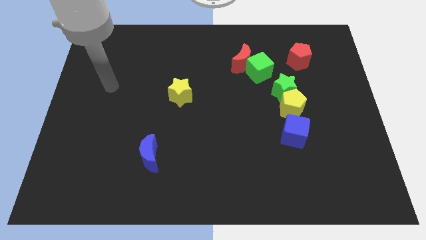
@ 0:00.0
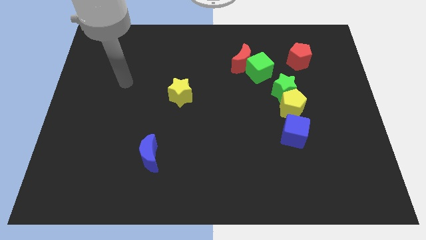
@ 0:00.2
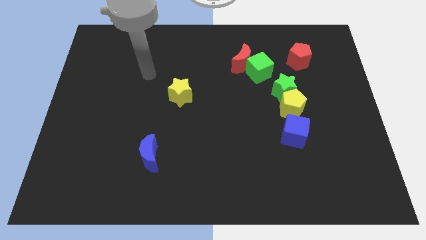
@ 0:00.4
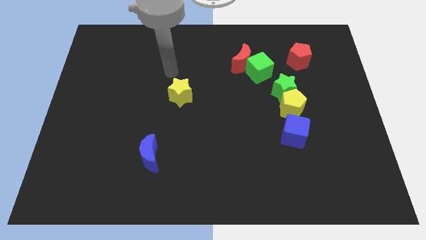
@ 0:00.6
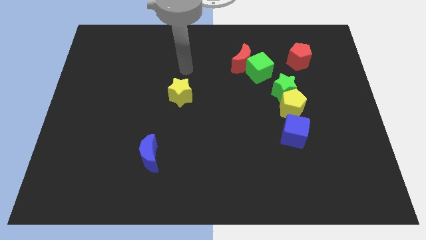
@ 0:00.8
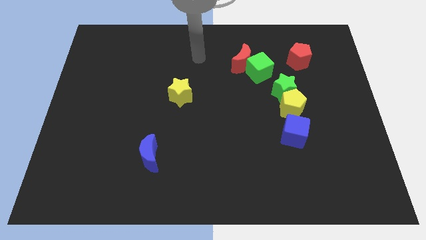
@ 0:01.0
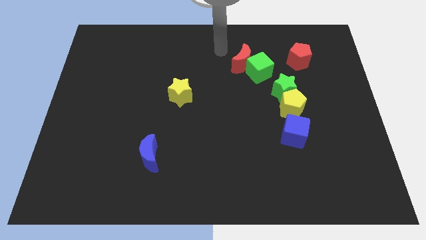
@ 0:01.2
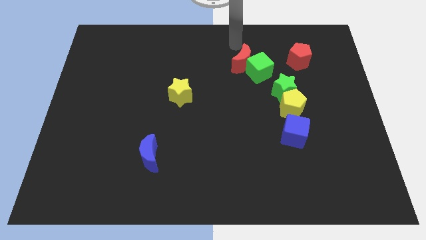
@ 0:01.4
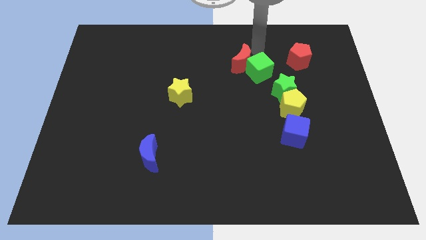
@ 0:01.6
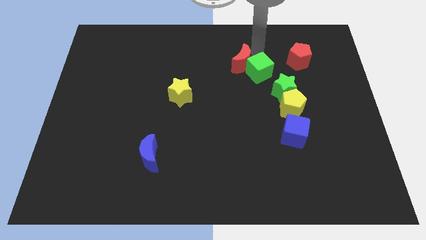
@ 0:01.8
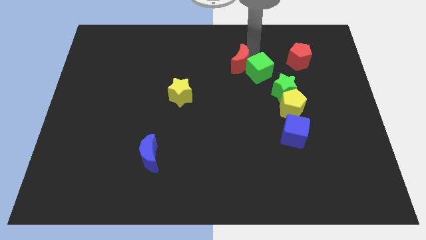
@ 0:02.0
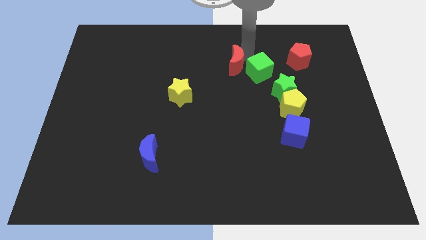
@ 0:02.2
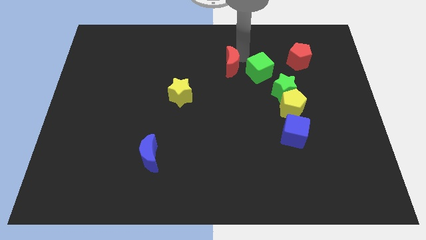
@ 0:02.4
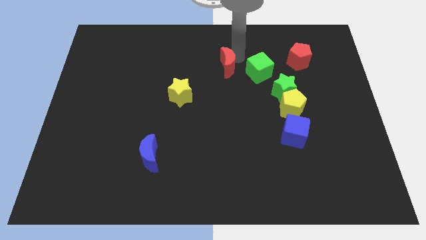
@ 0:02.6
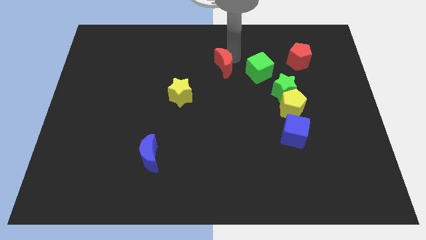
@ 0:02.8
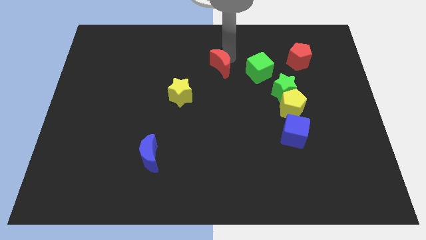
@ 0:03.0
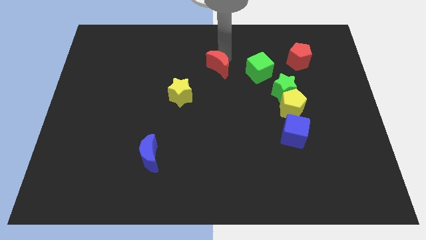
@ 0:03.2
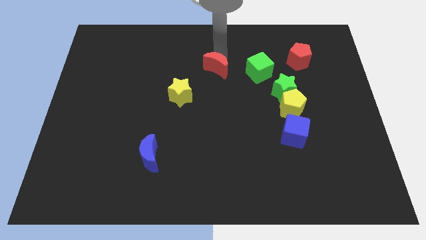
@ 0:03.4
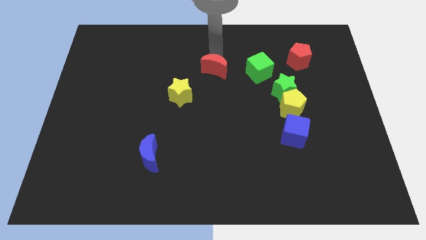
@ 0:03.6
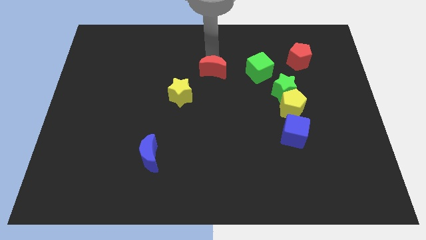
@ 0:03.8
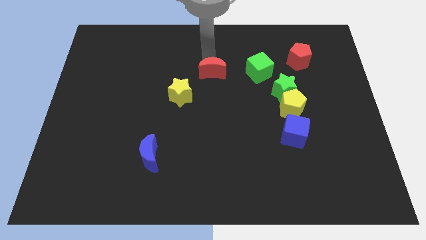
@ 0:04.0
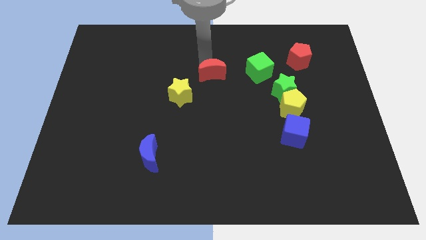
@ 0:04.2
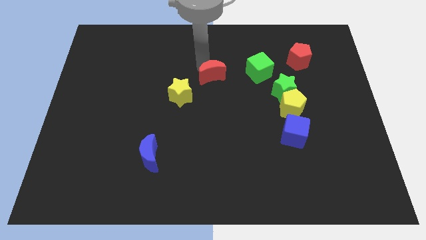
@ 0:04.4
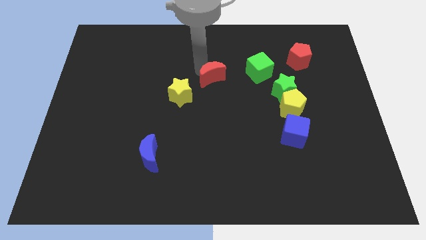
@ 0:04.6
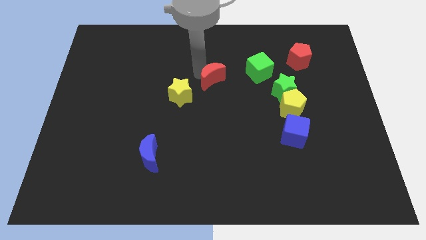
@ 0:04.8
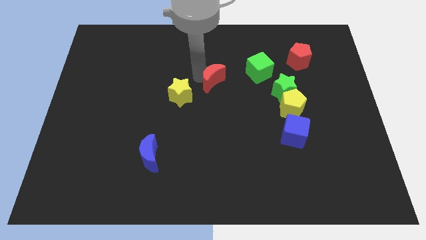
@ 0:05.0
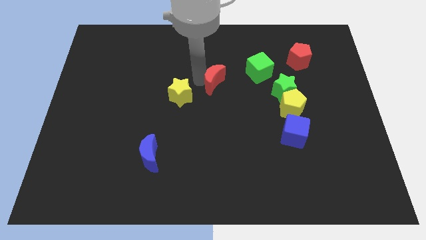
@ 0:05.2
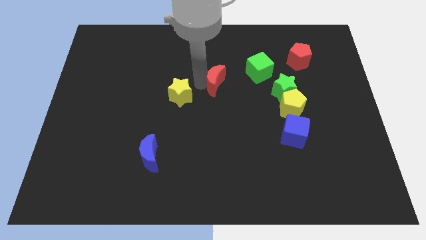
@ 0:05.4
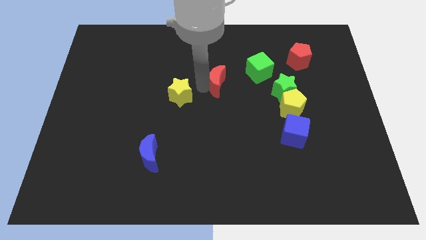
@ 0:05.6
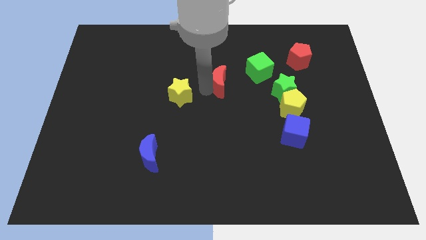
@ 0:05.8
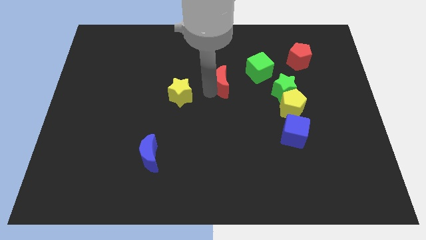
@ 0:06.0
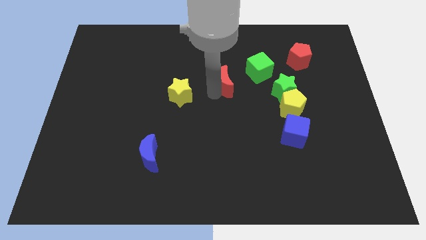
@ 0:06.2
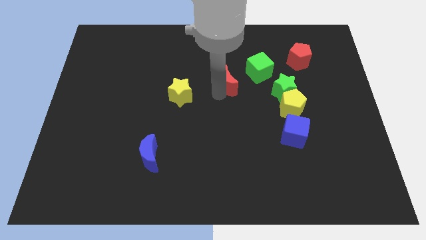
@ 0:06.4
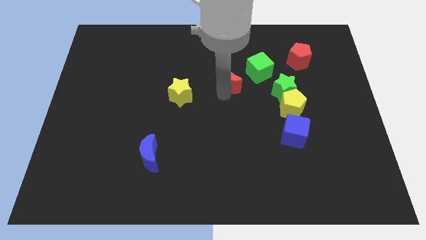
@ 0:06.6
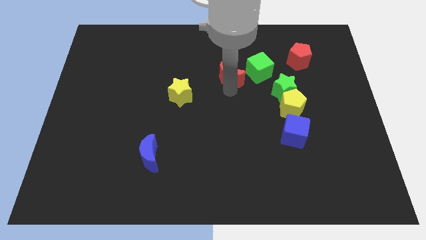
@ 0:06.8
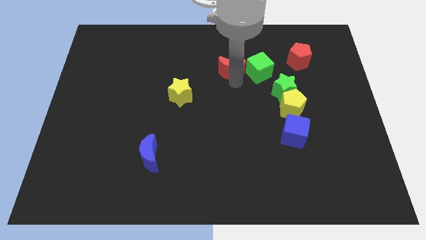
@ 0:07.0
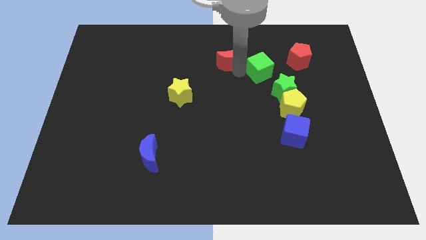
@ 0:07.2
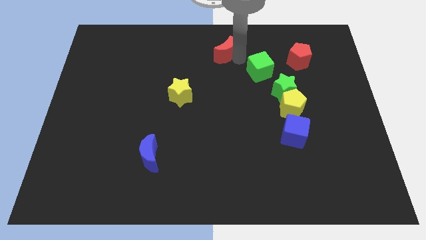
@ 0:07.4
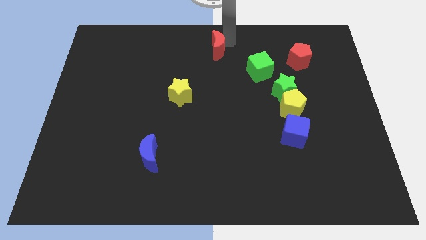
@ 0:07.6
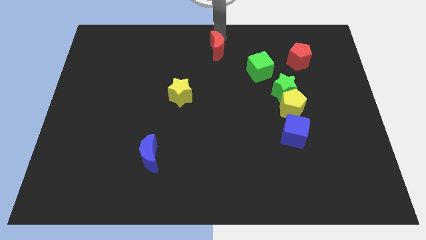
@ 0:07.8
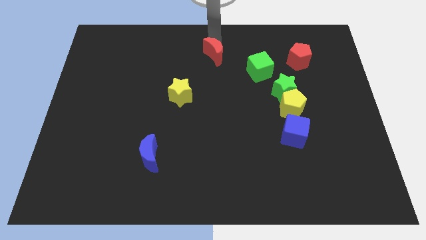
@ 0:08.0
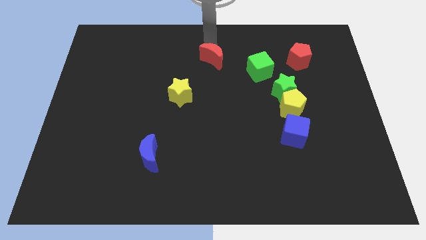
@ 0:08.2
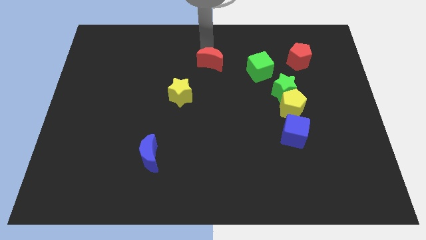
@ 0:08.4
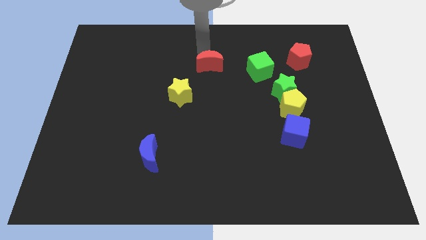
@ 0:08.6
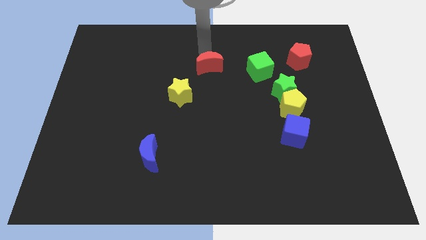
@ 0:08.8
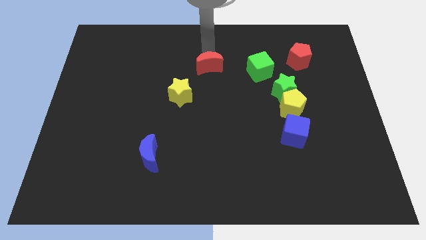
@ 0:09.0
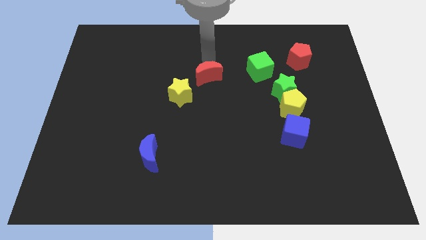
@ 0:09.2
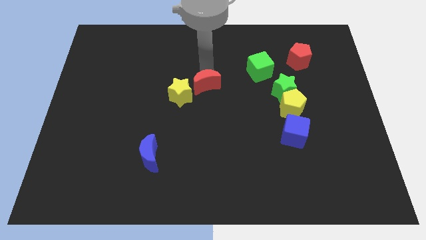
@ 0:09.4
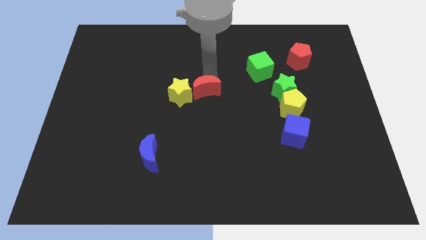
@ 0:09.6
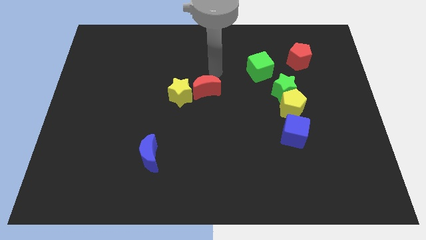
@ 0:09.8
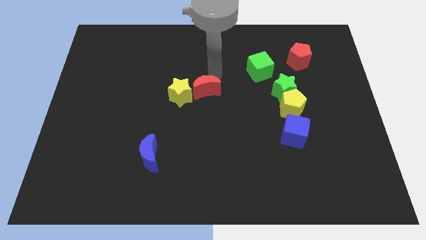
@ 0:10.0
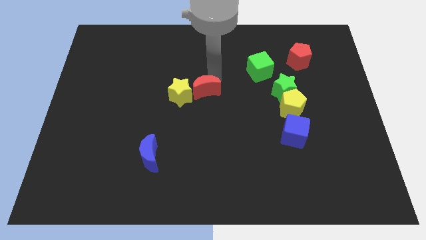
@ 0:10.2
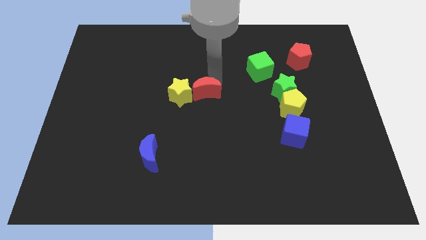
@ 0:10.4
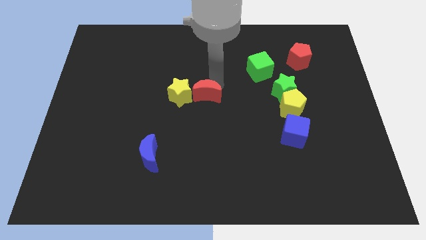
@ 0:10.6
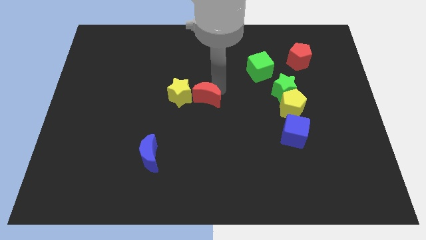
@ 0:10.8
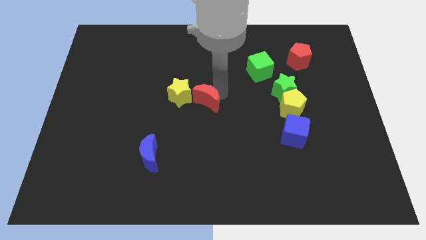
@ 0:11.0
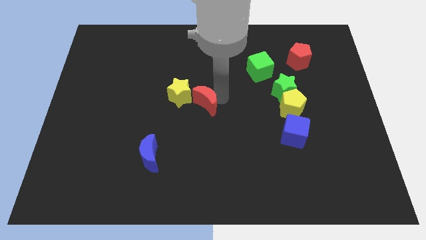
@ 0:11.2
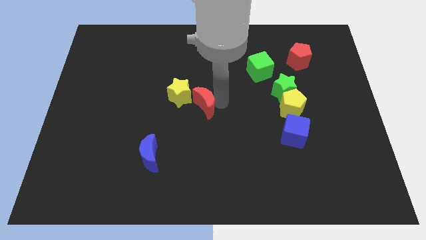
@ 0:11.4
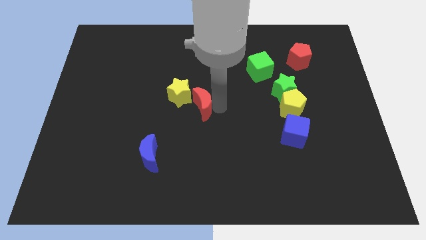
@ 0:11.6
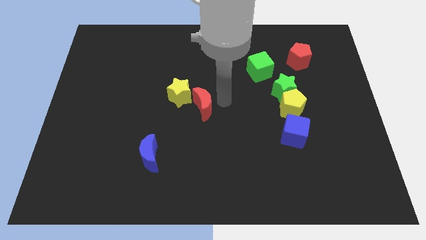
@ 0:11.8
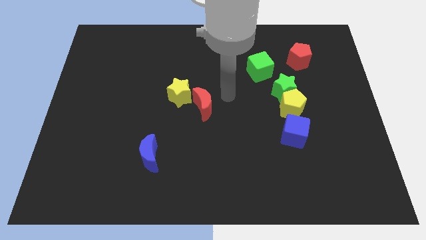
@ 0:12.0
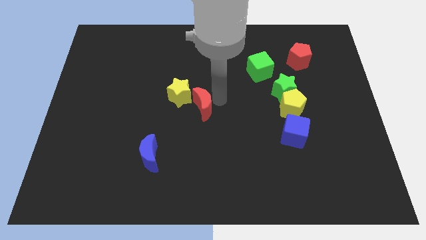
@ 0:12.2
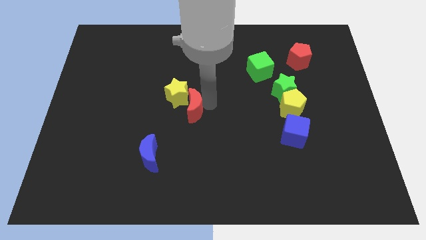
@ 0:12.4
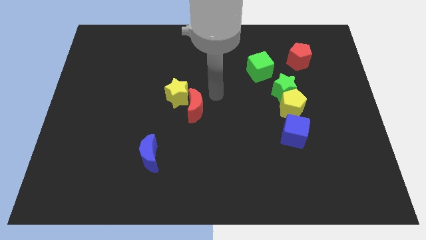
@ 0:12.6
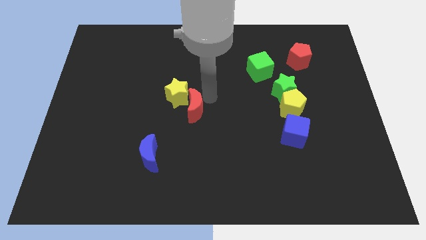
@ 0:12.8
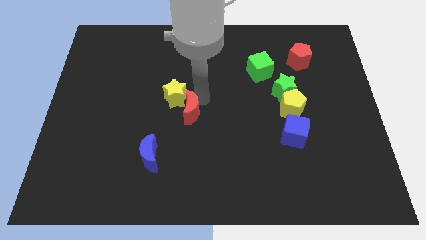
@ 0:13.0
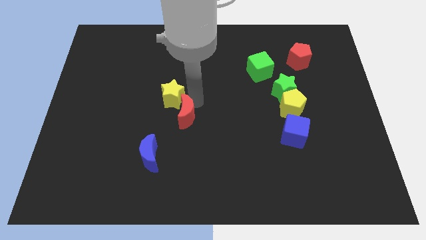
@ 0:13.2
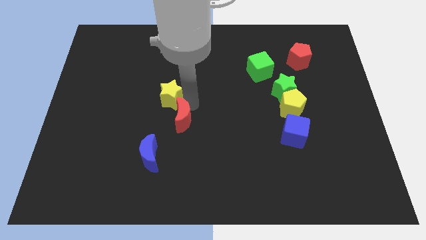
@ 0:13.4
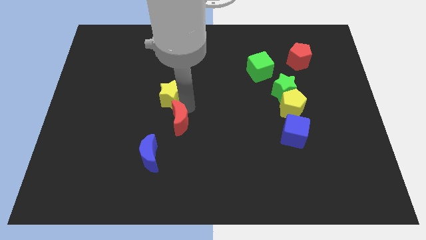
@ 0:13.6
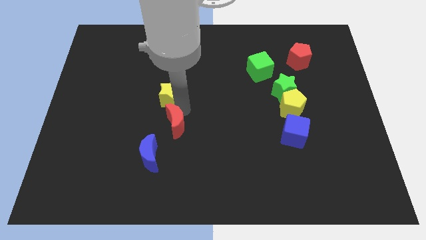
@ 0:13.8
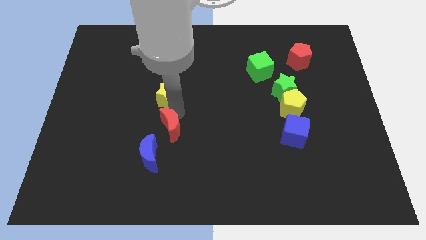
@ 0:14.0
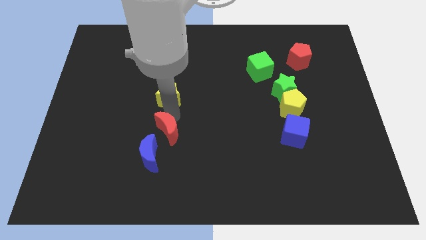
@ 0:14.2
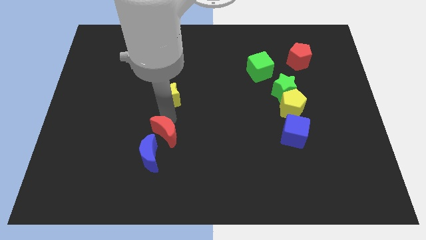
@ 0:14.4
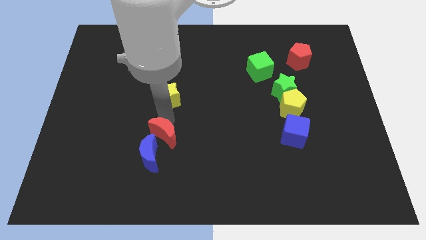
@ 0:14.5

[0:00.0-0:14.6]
slide the red moon next to the blue moon
